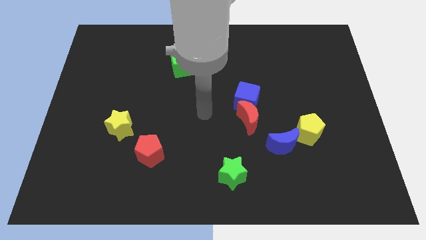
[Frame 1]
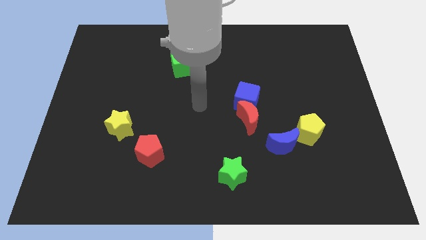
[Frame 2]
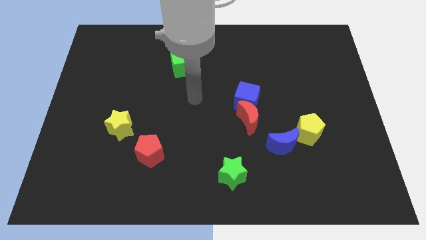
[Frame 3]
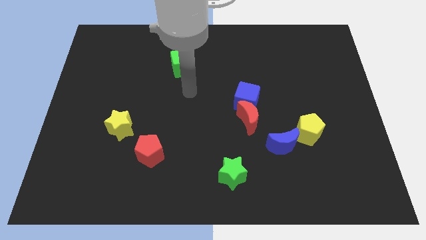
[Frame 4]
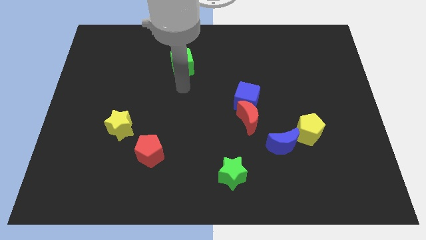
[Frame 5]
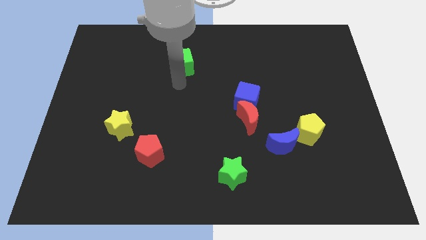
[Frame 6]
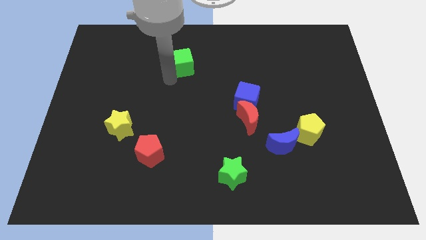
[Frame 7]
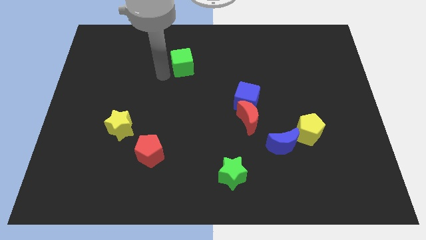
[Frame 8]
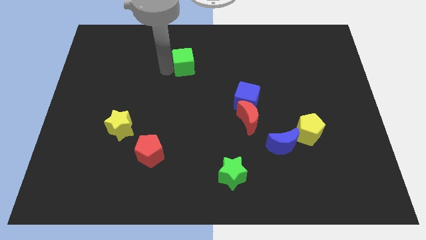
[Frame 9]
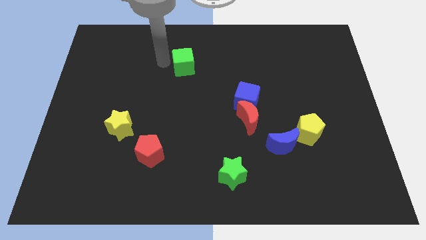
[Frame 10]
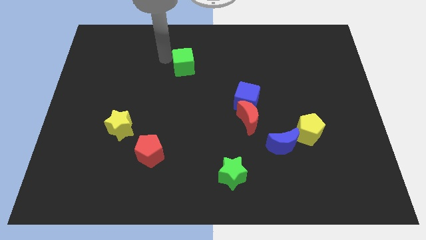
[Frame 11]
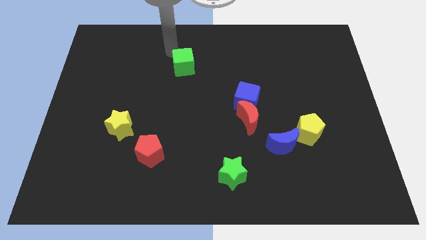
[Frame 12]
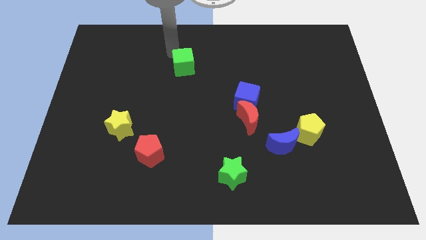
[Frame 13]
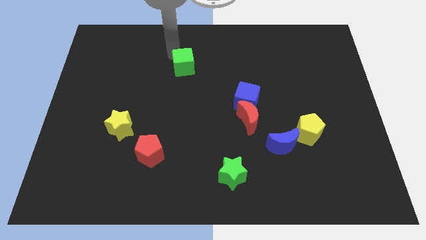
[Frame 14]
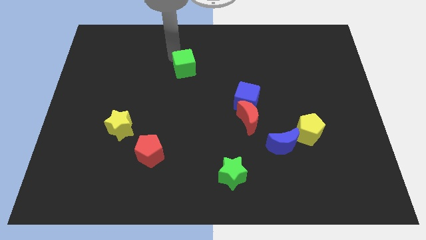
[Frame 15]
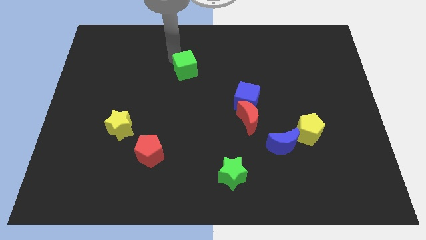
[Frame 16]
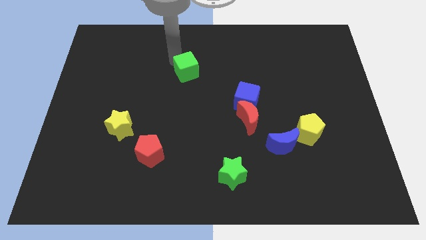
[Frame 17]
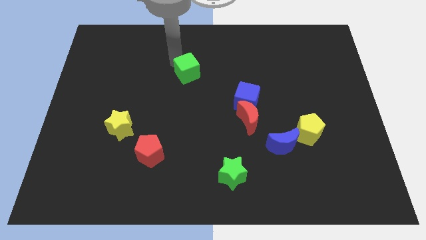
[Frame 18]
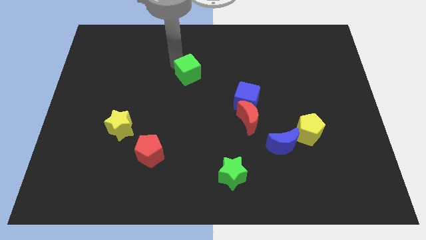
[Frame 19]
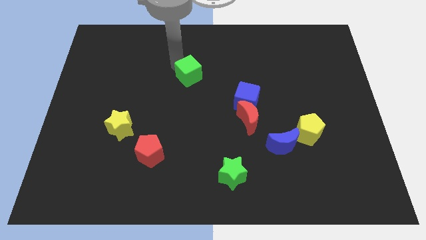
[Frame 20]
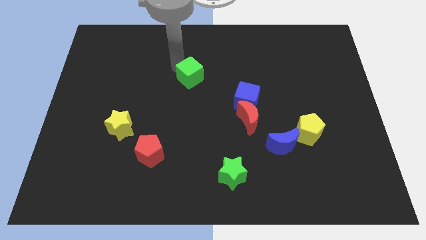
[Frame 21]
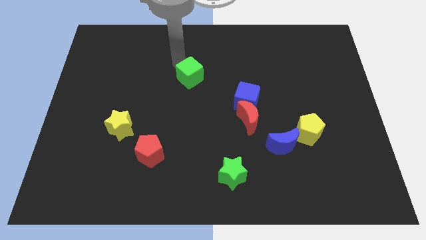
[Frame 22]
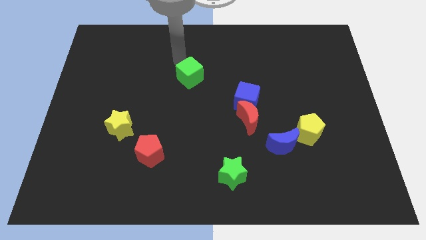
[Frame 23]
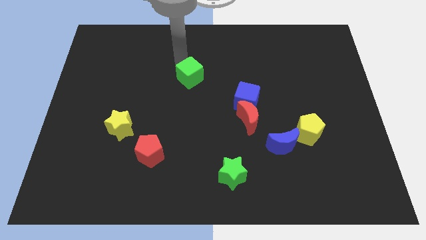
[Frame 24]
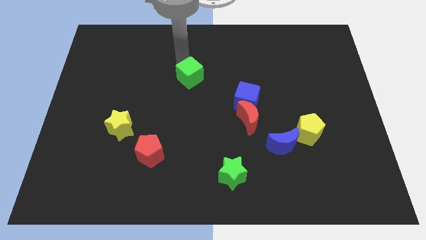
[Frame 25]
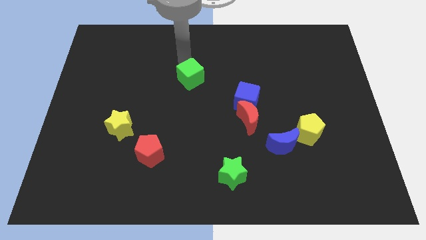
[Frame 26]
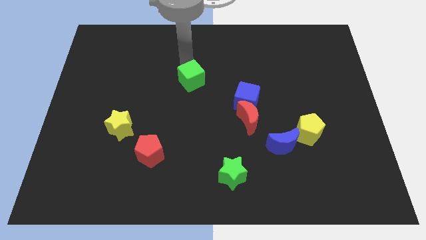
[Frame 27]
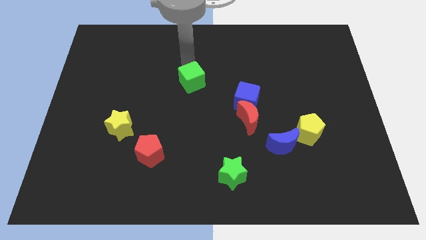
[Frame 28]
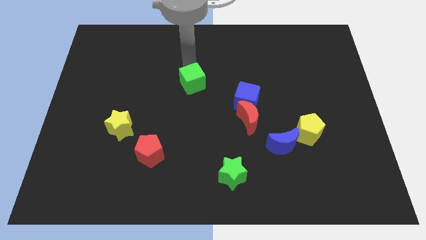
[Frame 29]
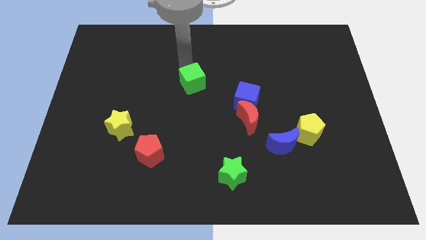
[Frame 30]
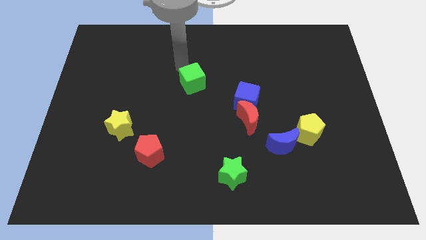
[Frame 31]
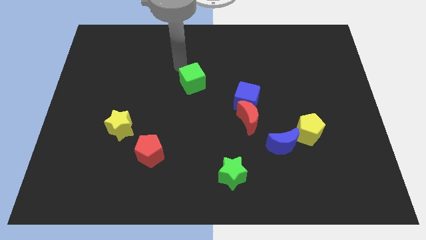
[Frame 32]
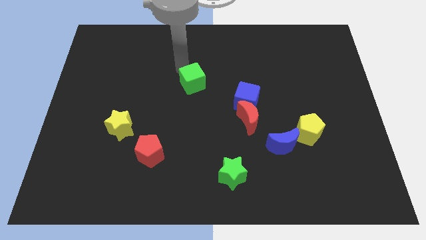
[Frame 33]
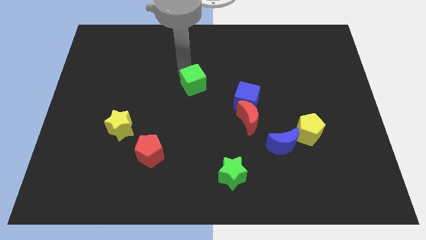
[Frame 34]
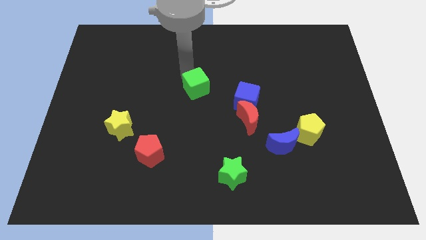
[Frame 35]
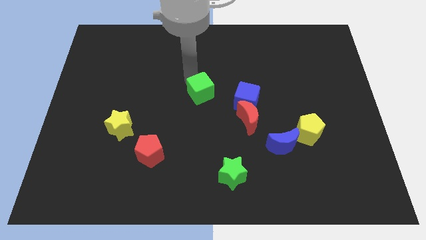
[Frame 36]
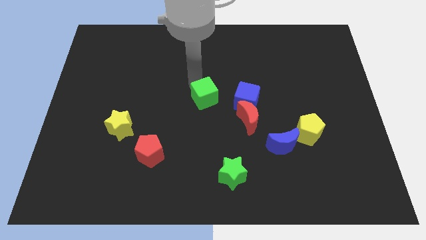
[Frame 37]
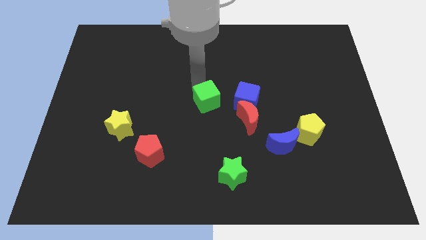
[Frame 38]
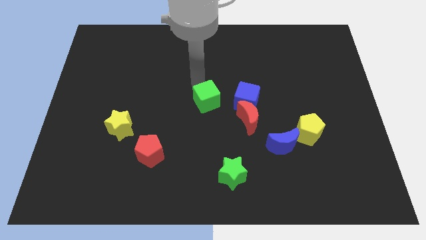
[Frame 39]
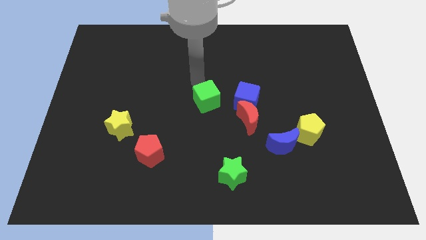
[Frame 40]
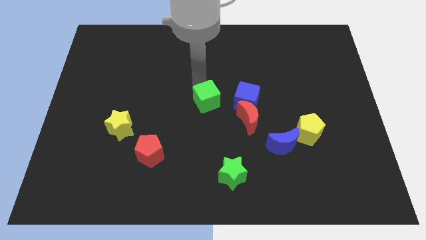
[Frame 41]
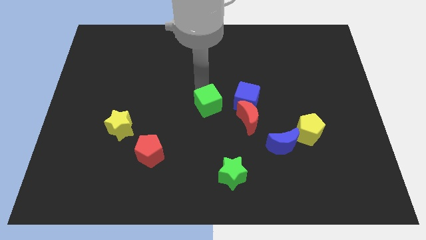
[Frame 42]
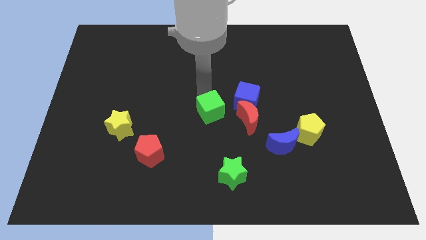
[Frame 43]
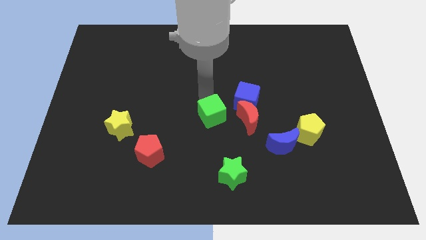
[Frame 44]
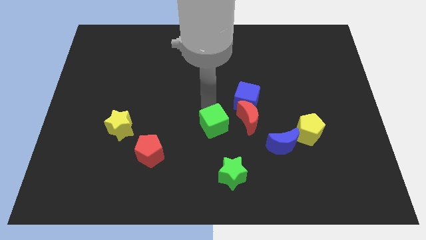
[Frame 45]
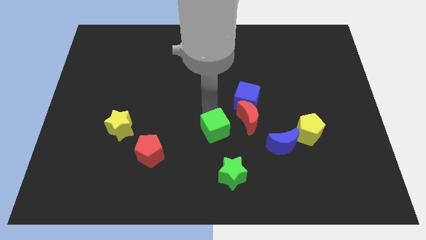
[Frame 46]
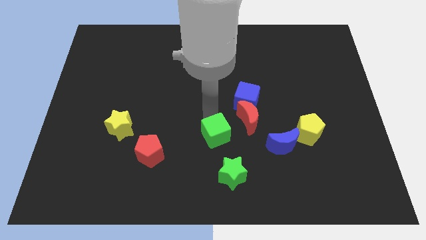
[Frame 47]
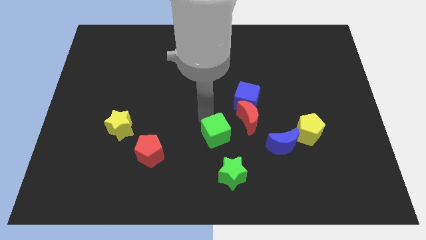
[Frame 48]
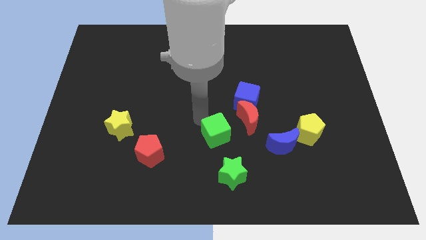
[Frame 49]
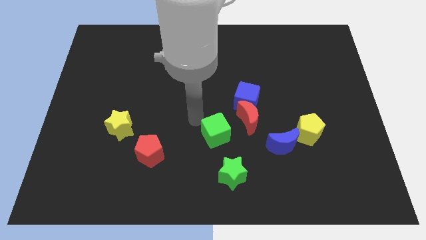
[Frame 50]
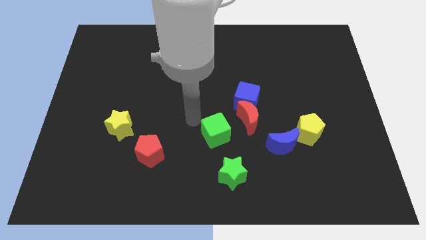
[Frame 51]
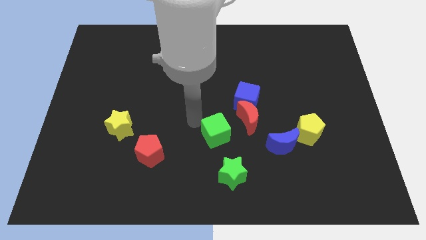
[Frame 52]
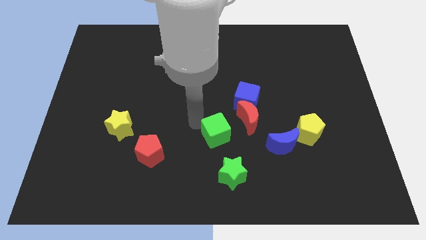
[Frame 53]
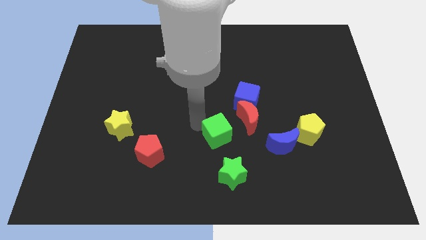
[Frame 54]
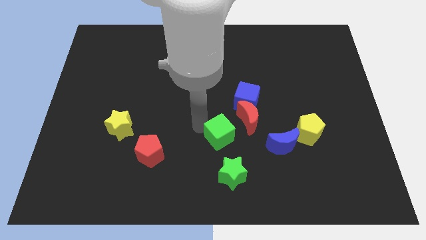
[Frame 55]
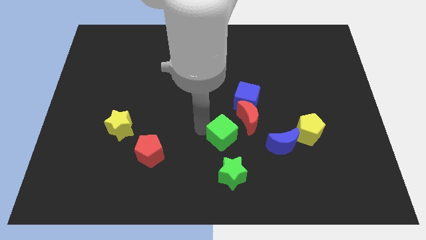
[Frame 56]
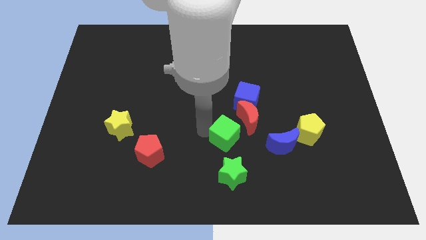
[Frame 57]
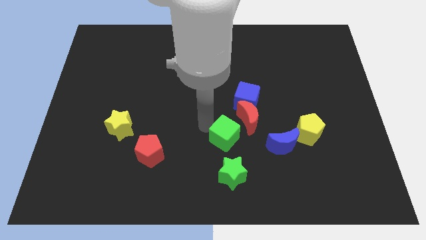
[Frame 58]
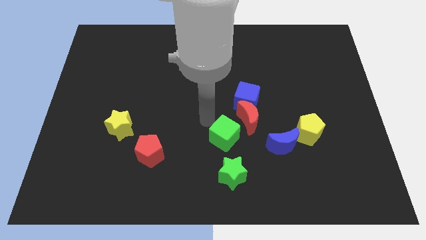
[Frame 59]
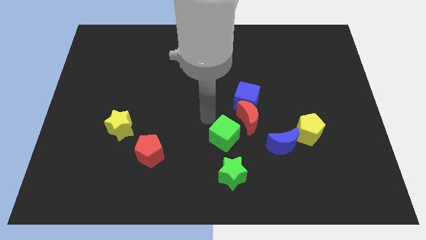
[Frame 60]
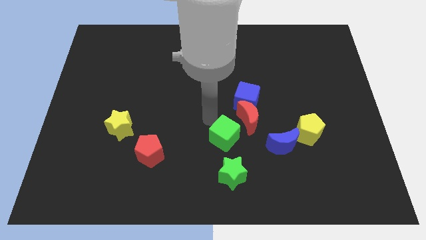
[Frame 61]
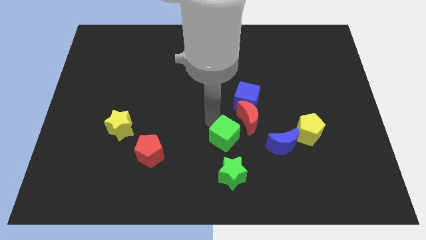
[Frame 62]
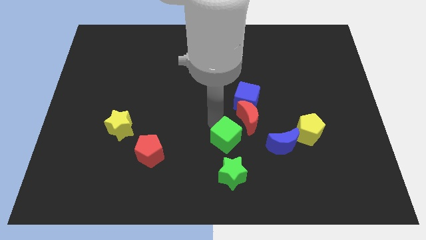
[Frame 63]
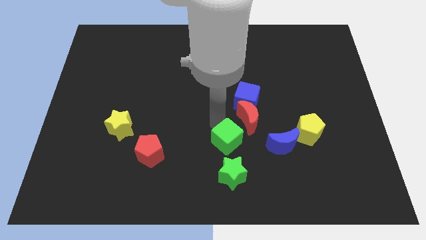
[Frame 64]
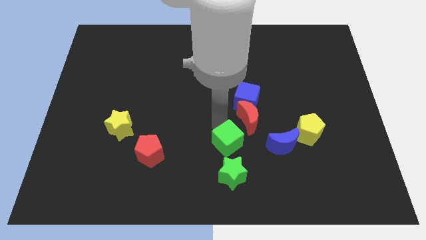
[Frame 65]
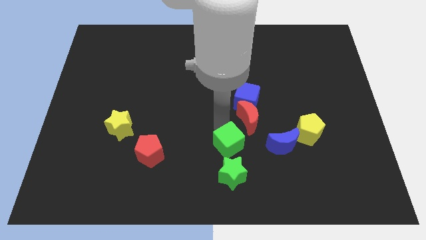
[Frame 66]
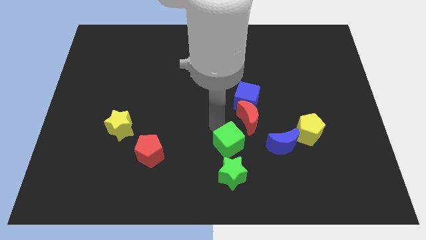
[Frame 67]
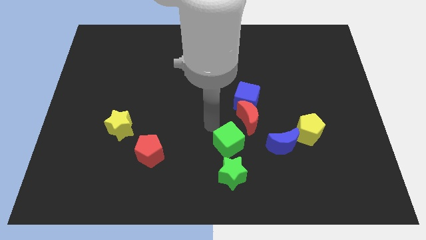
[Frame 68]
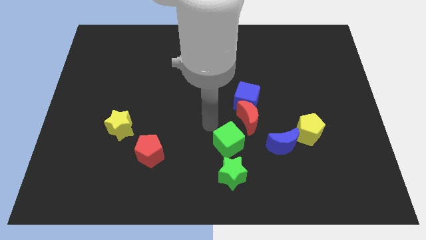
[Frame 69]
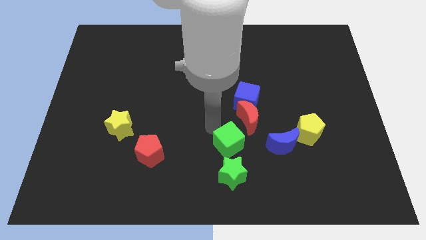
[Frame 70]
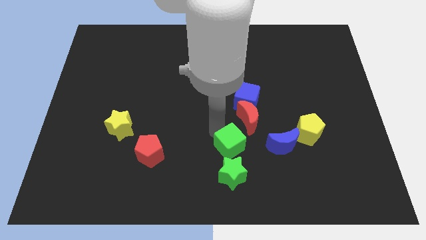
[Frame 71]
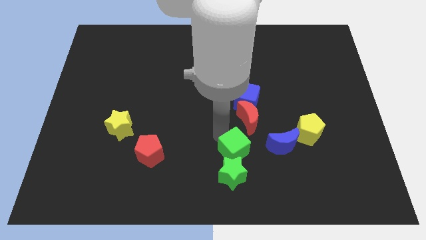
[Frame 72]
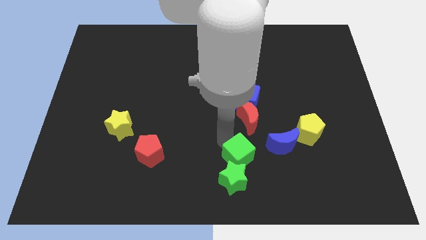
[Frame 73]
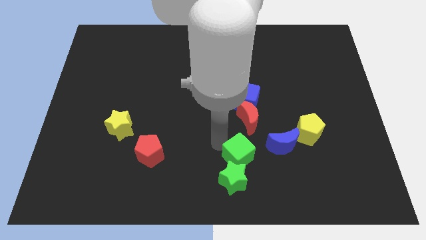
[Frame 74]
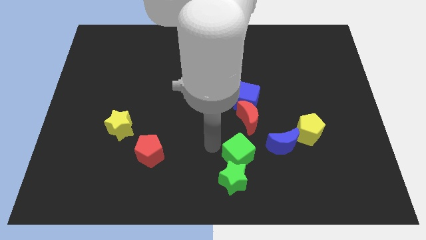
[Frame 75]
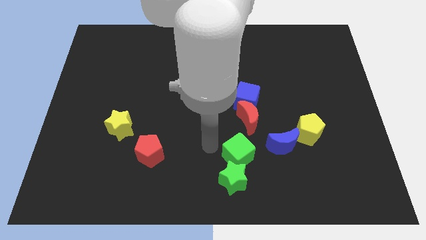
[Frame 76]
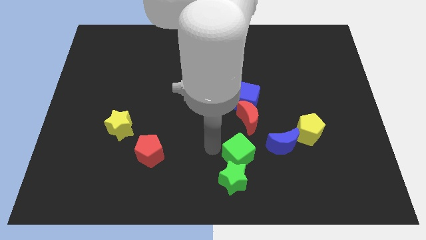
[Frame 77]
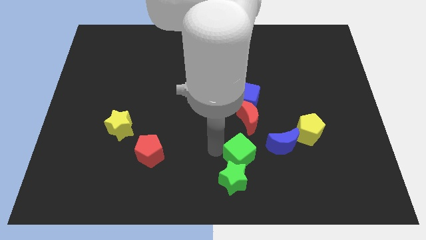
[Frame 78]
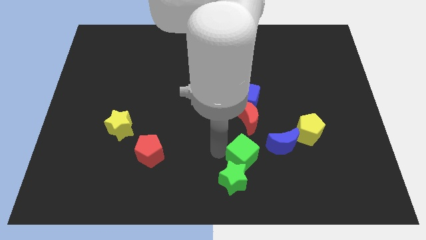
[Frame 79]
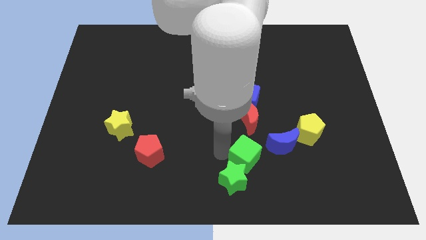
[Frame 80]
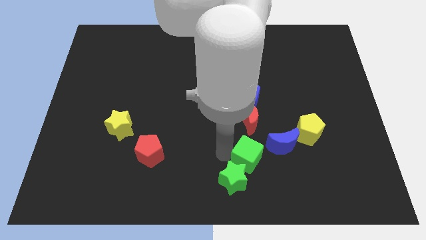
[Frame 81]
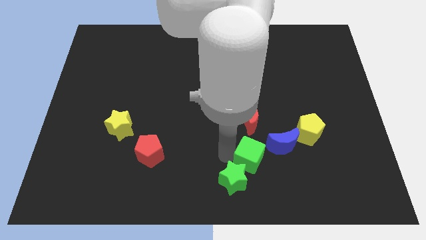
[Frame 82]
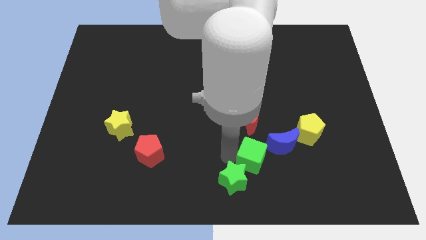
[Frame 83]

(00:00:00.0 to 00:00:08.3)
push the green cube to the right of the green star
